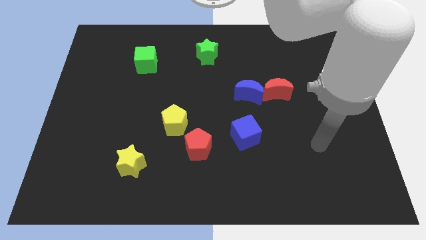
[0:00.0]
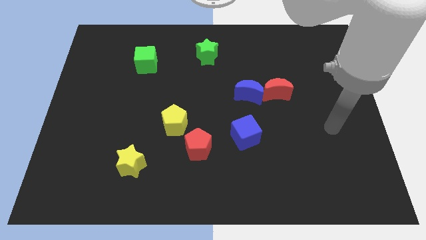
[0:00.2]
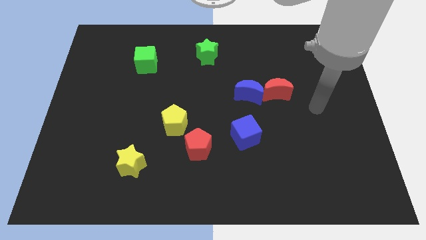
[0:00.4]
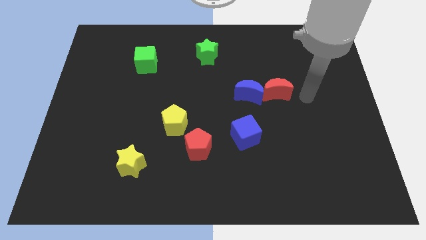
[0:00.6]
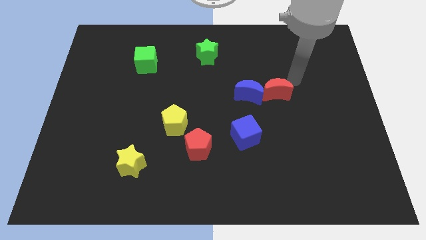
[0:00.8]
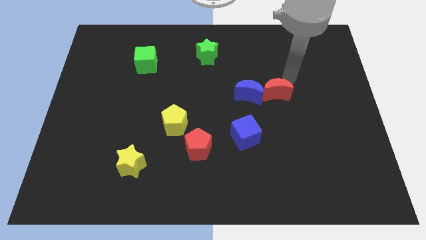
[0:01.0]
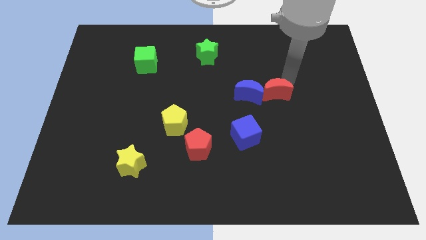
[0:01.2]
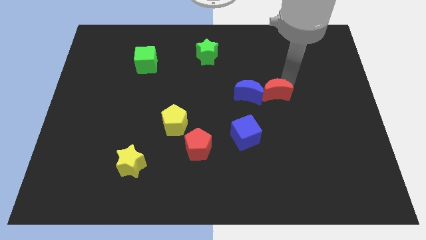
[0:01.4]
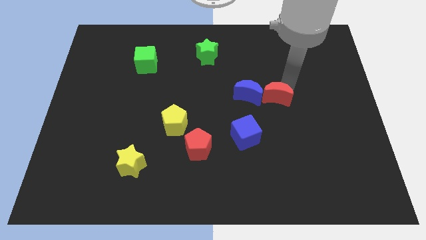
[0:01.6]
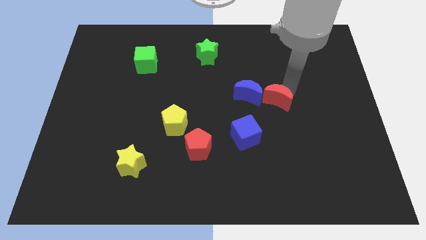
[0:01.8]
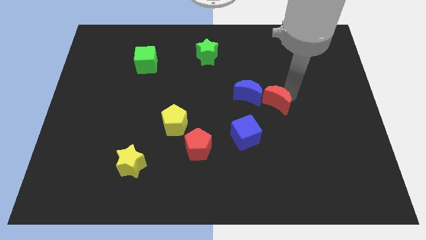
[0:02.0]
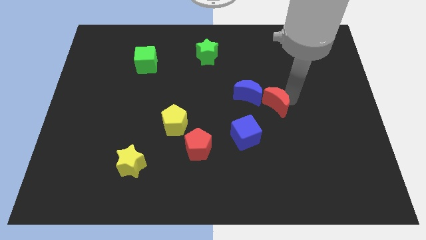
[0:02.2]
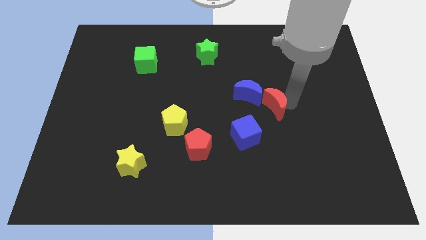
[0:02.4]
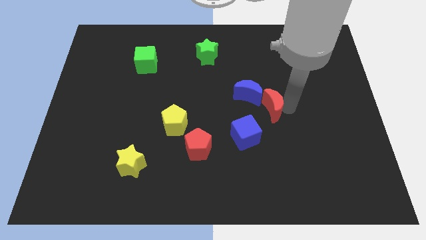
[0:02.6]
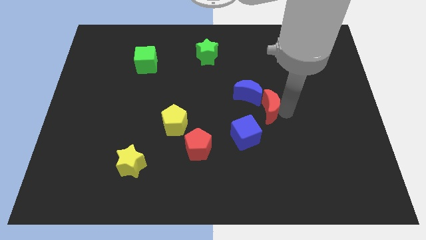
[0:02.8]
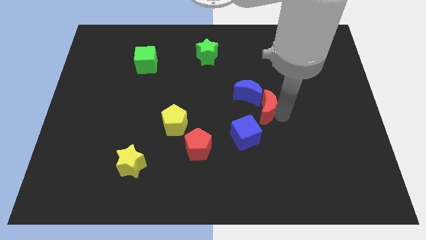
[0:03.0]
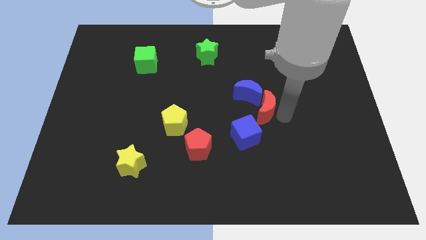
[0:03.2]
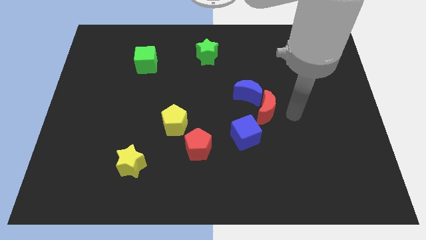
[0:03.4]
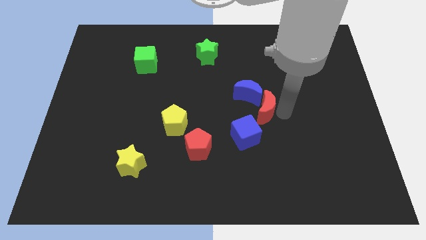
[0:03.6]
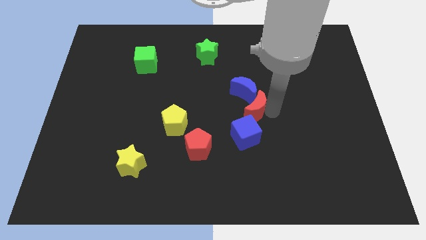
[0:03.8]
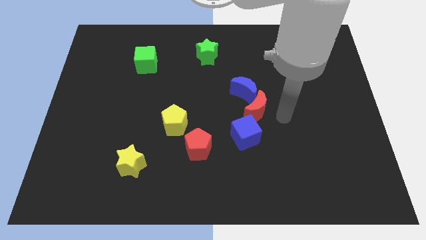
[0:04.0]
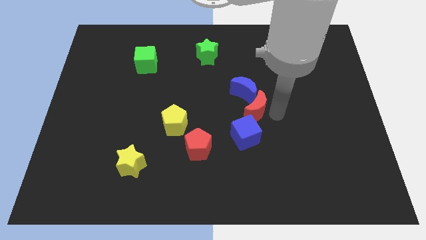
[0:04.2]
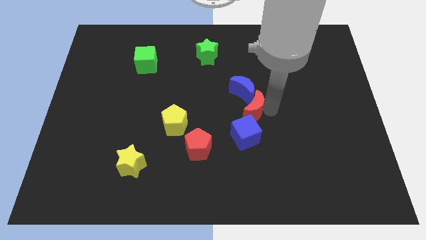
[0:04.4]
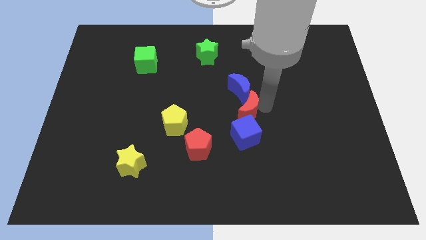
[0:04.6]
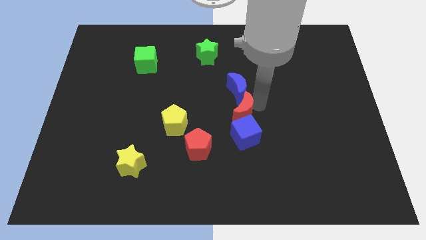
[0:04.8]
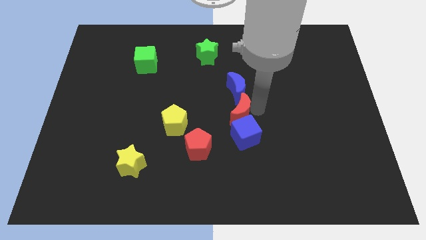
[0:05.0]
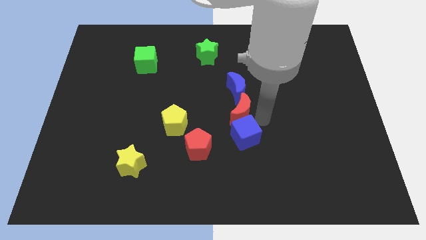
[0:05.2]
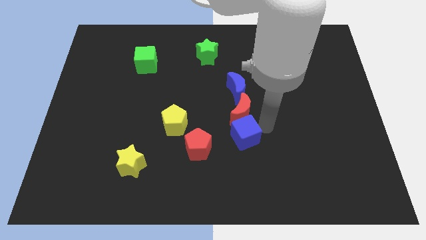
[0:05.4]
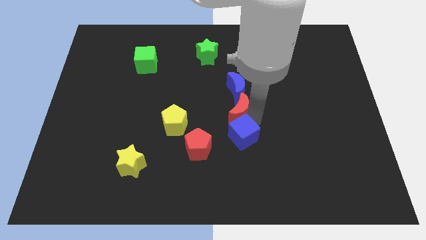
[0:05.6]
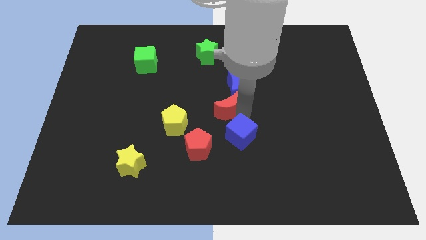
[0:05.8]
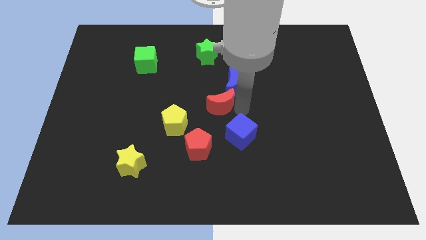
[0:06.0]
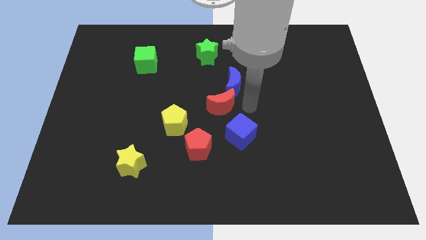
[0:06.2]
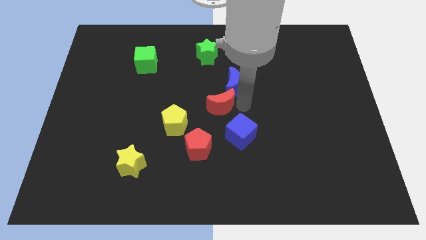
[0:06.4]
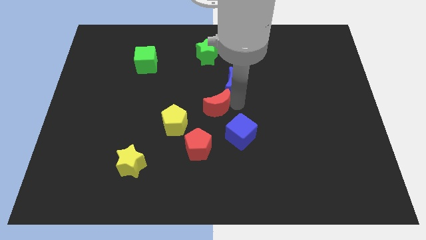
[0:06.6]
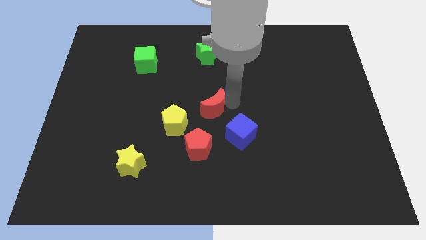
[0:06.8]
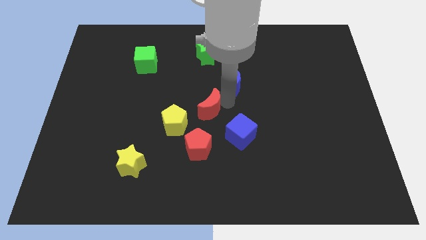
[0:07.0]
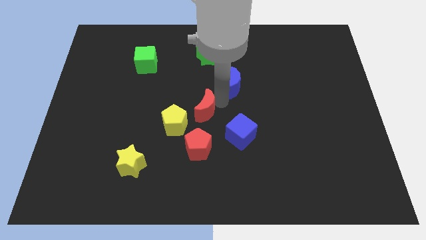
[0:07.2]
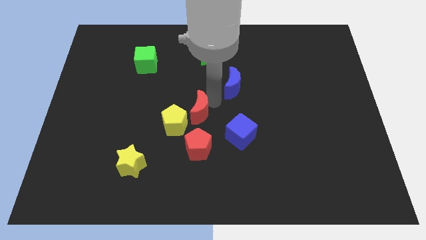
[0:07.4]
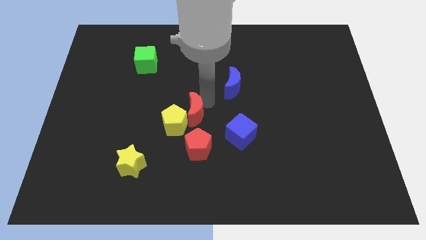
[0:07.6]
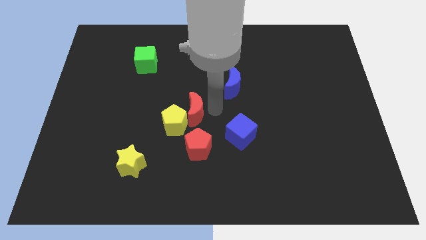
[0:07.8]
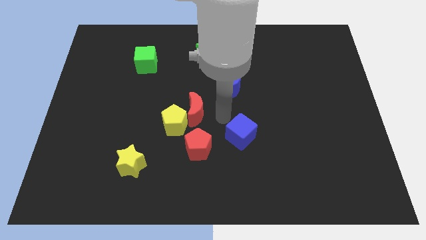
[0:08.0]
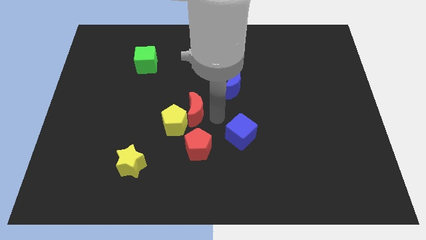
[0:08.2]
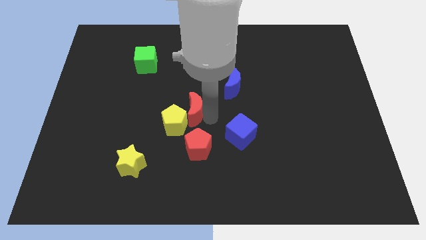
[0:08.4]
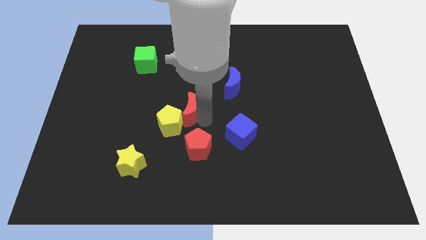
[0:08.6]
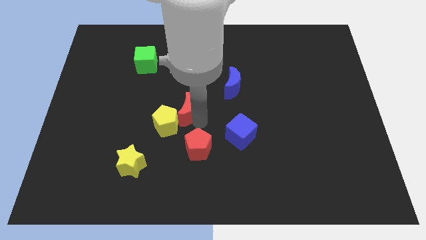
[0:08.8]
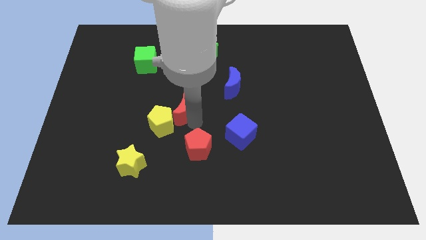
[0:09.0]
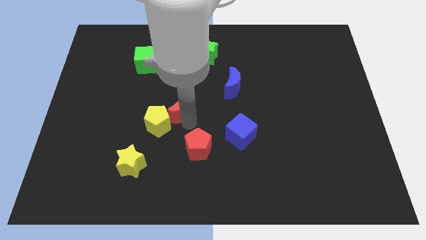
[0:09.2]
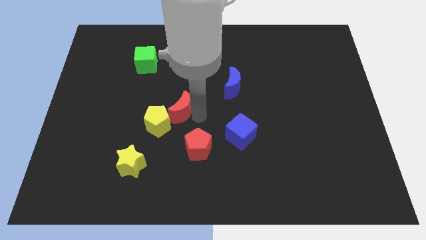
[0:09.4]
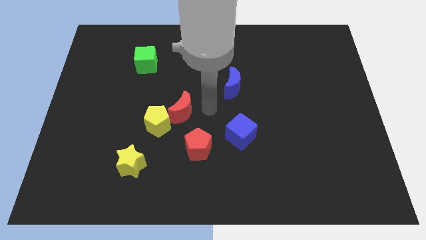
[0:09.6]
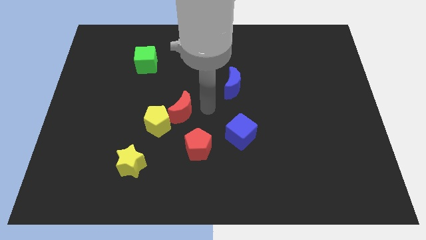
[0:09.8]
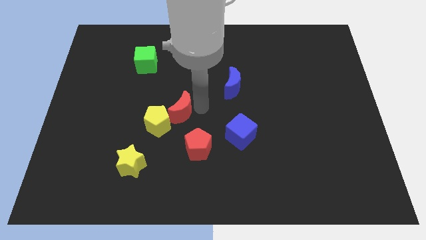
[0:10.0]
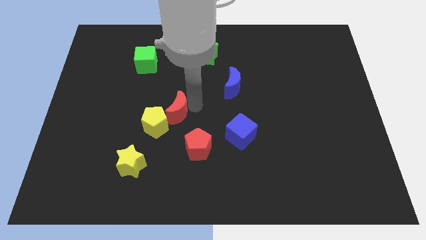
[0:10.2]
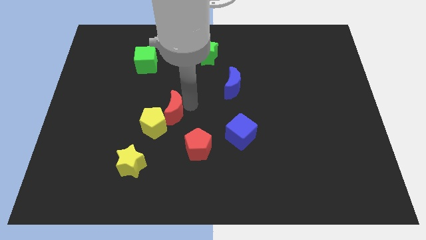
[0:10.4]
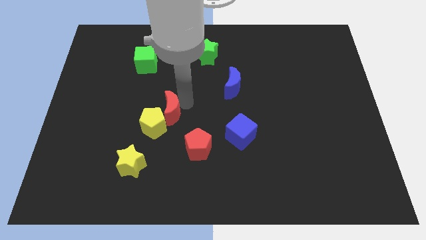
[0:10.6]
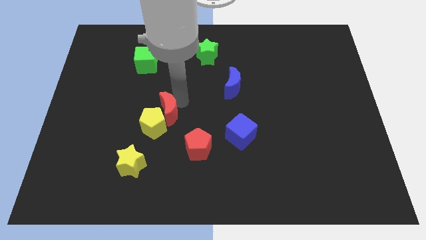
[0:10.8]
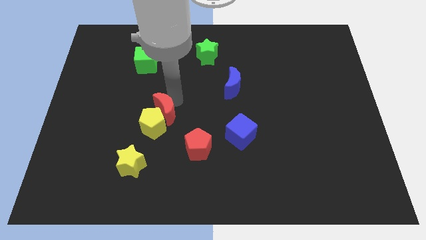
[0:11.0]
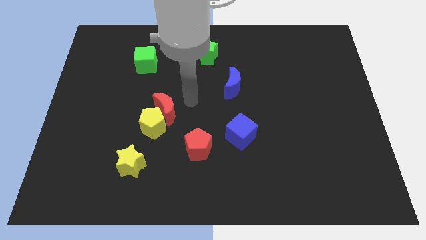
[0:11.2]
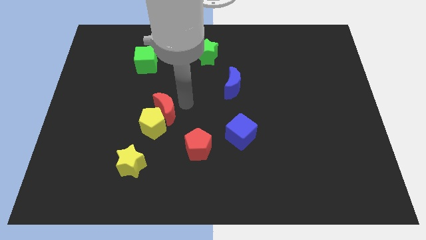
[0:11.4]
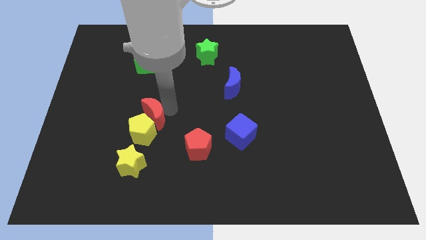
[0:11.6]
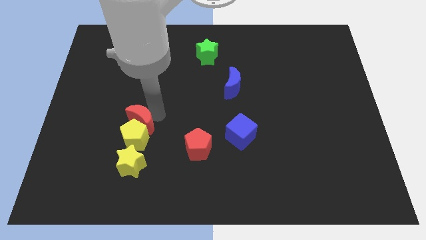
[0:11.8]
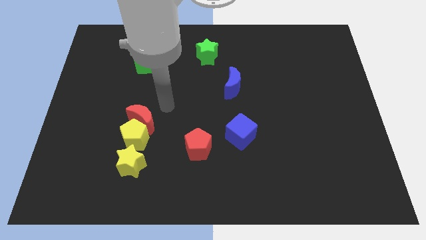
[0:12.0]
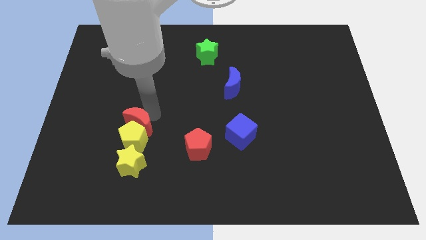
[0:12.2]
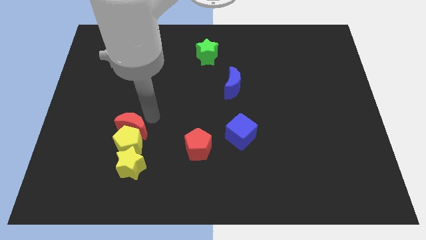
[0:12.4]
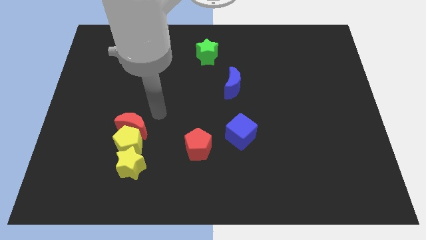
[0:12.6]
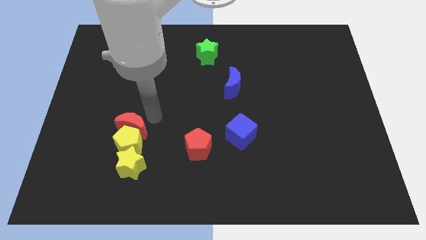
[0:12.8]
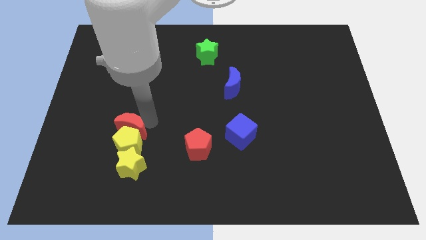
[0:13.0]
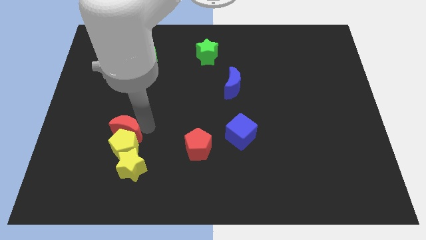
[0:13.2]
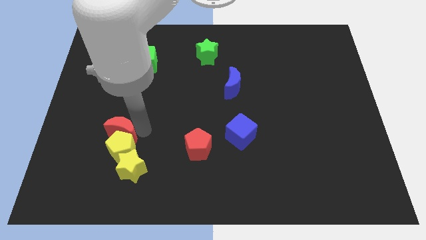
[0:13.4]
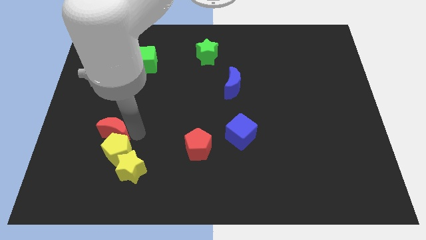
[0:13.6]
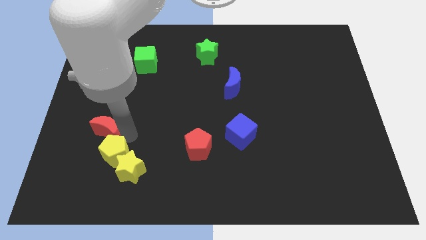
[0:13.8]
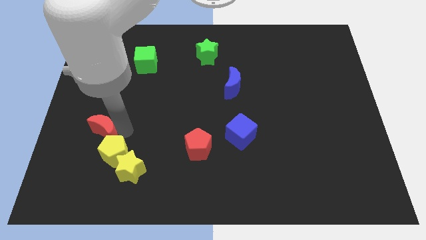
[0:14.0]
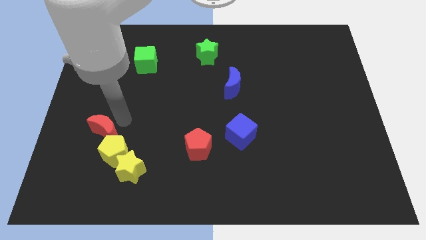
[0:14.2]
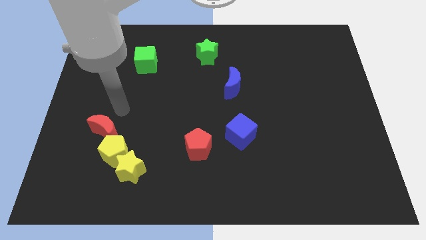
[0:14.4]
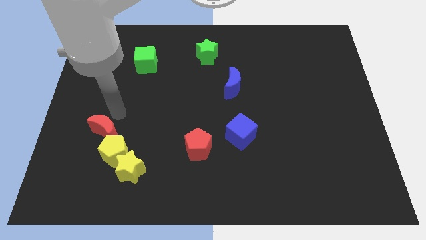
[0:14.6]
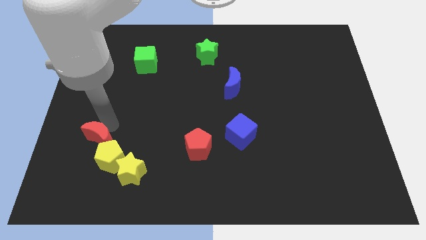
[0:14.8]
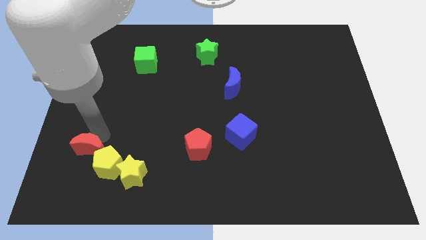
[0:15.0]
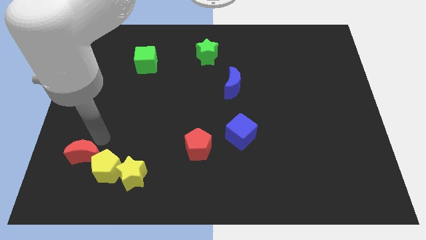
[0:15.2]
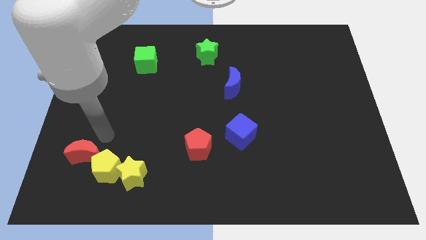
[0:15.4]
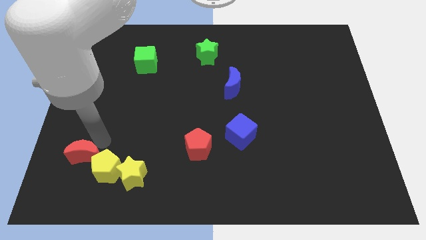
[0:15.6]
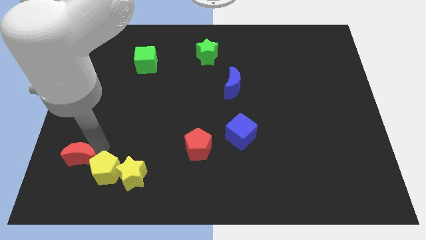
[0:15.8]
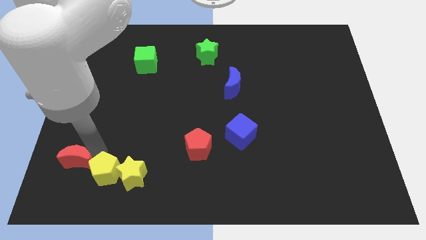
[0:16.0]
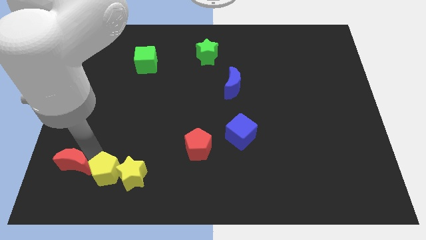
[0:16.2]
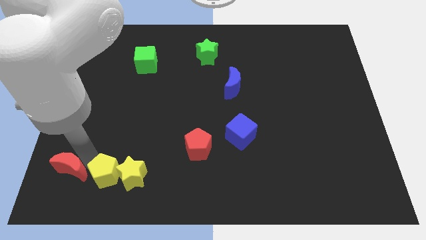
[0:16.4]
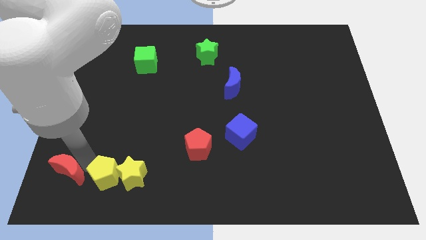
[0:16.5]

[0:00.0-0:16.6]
move the red moon to the bottom left
